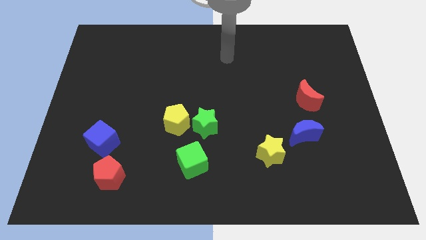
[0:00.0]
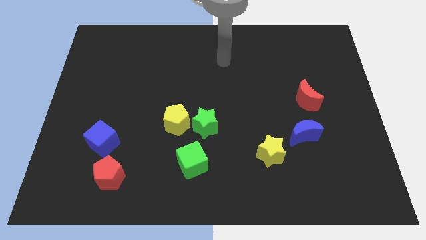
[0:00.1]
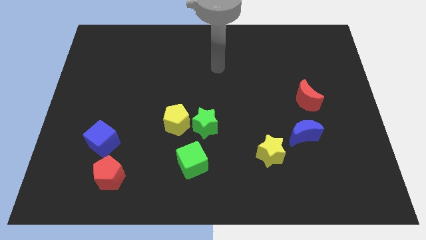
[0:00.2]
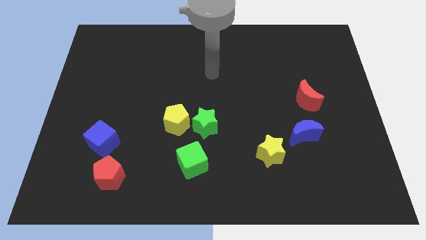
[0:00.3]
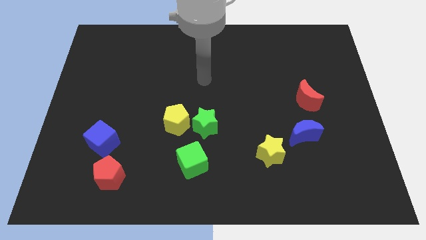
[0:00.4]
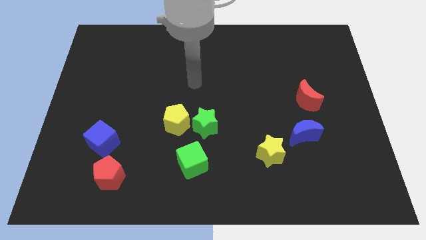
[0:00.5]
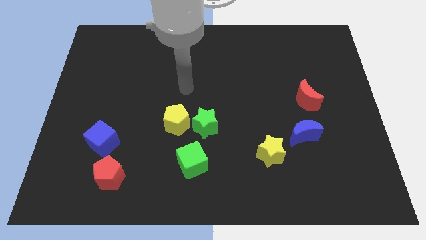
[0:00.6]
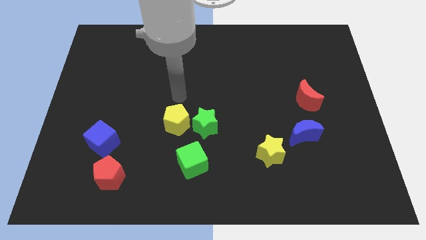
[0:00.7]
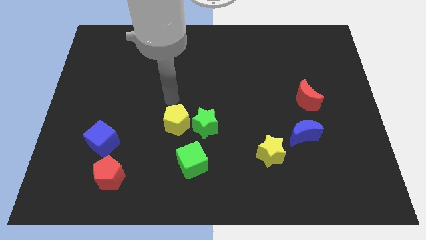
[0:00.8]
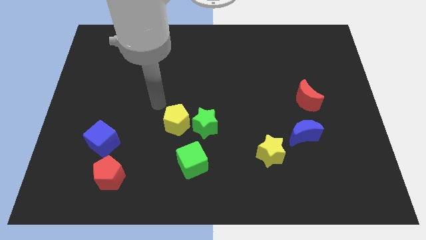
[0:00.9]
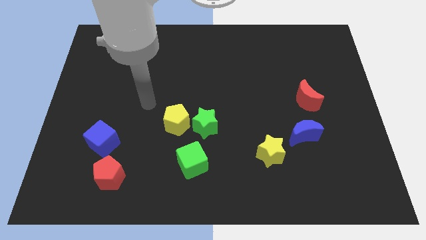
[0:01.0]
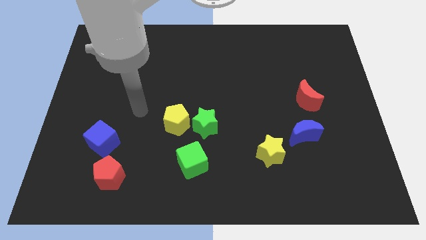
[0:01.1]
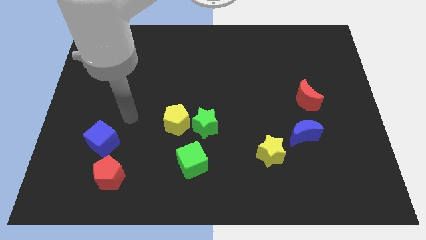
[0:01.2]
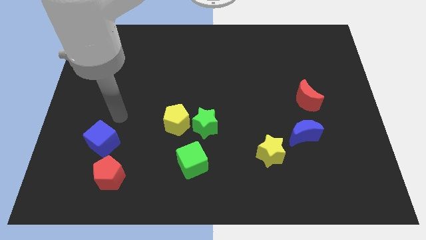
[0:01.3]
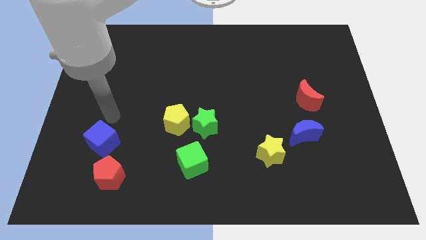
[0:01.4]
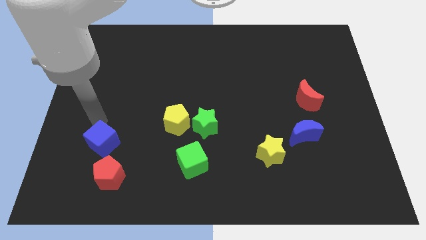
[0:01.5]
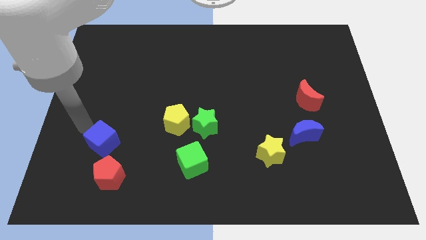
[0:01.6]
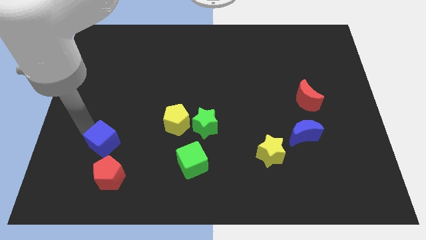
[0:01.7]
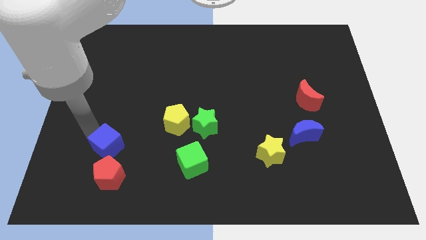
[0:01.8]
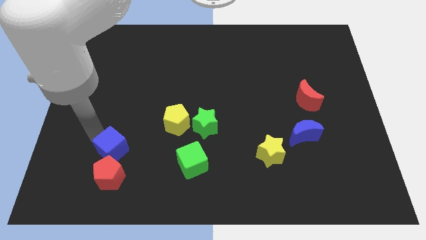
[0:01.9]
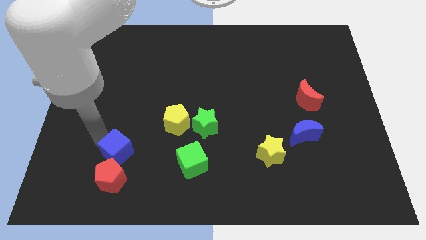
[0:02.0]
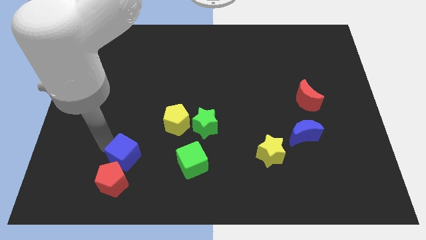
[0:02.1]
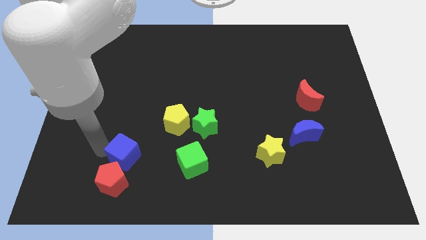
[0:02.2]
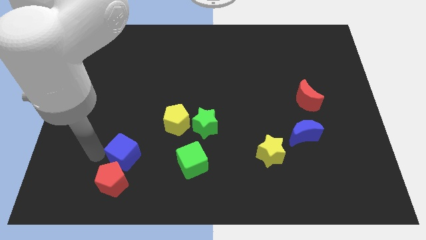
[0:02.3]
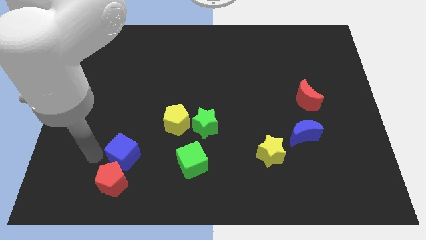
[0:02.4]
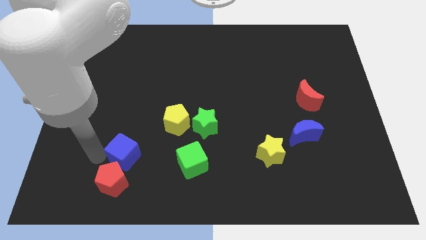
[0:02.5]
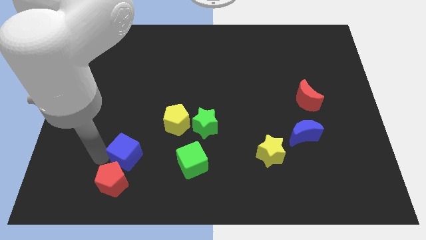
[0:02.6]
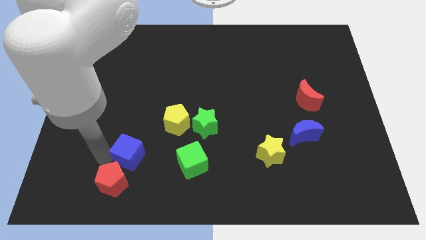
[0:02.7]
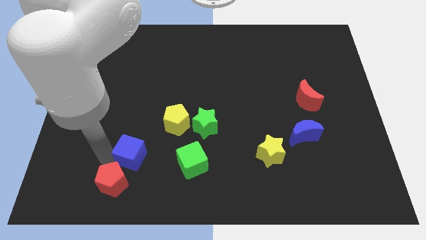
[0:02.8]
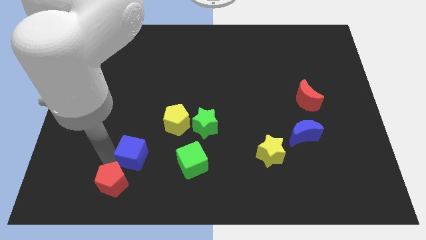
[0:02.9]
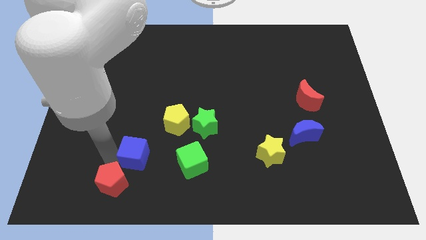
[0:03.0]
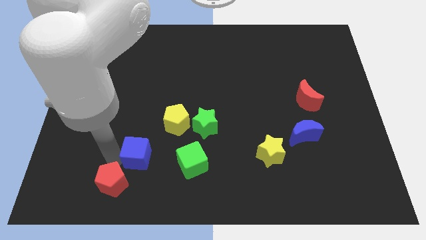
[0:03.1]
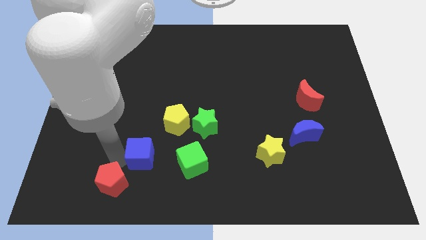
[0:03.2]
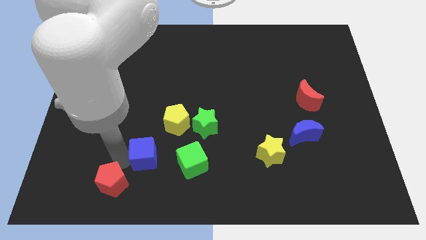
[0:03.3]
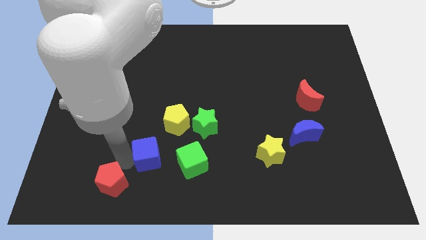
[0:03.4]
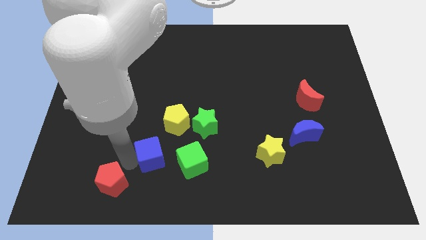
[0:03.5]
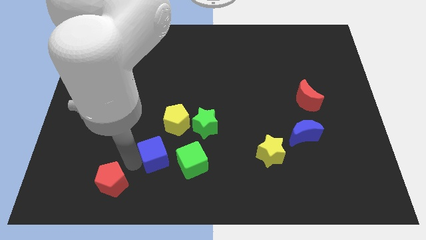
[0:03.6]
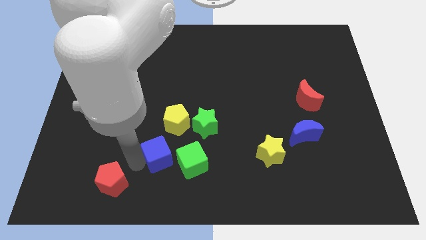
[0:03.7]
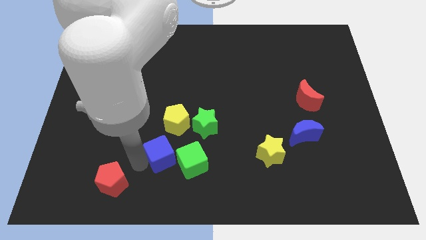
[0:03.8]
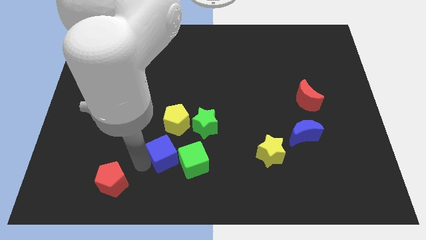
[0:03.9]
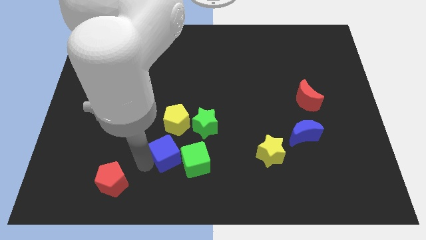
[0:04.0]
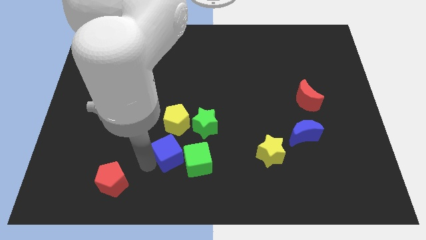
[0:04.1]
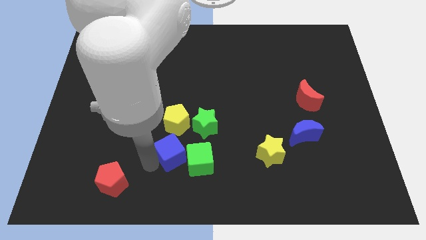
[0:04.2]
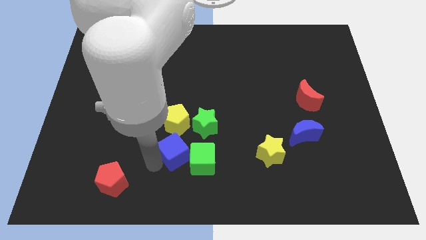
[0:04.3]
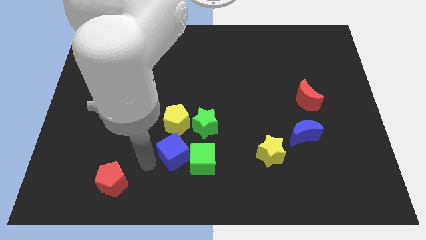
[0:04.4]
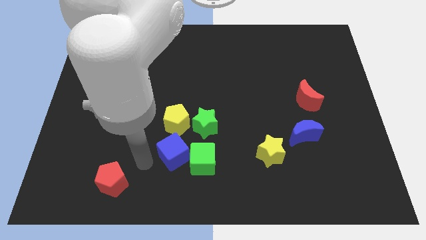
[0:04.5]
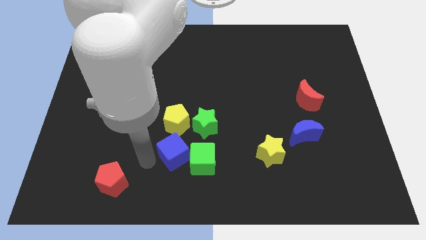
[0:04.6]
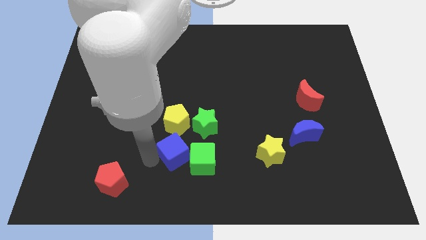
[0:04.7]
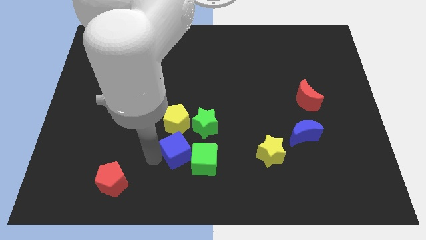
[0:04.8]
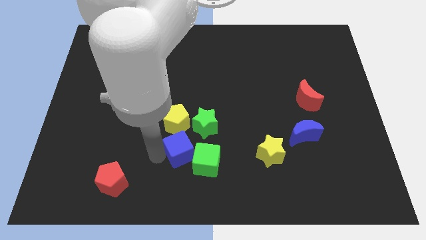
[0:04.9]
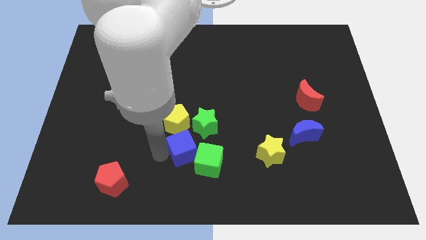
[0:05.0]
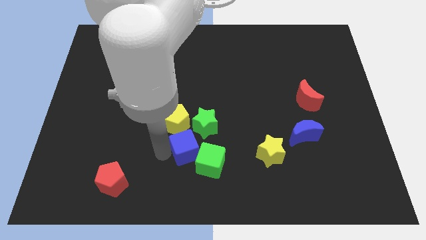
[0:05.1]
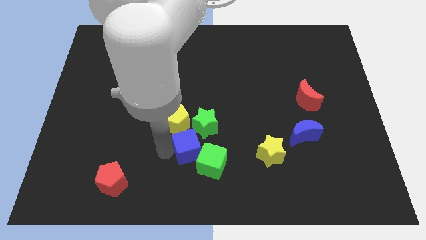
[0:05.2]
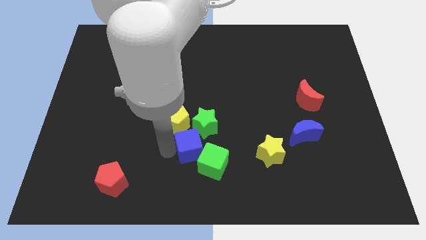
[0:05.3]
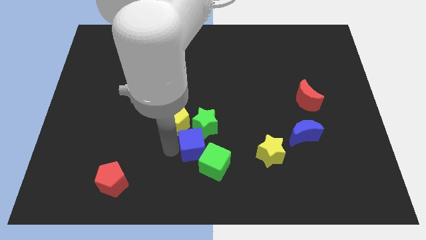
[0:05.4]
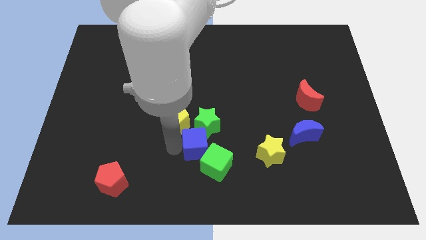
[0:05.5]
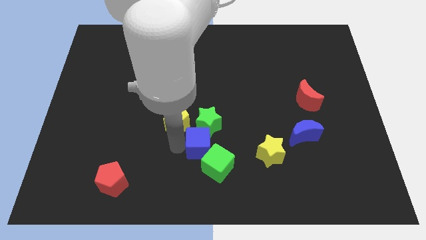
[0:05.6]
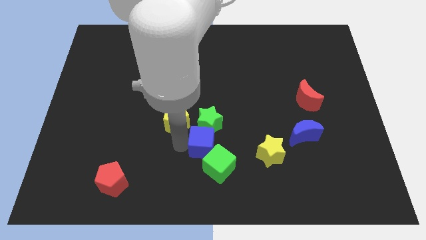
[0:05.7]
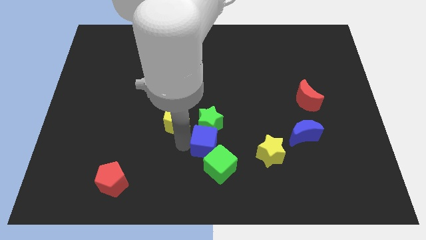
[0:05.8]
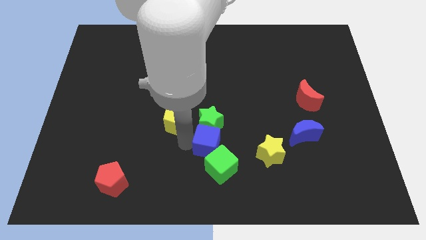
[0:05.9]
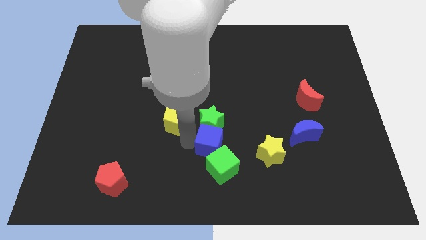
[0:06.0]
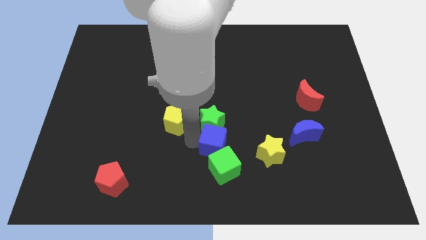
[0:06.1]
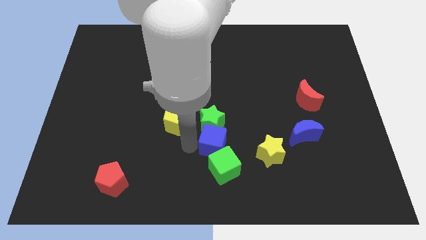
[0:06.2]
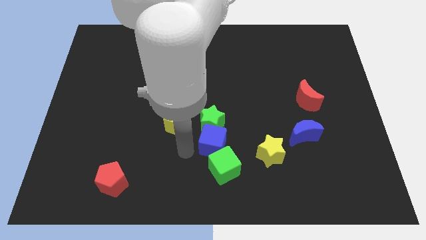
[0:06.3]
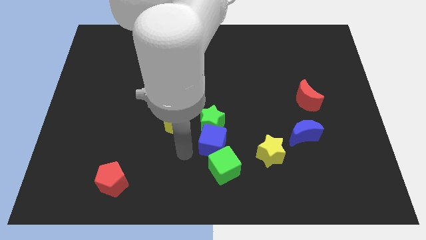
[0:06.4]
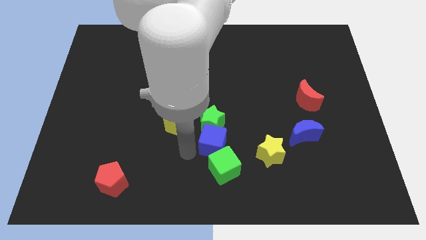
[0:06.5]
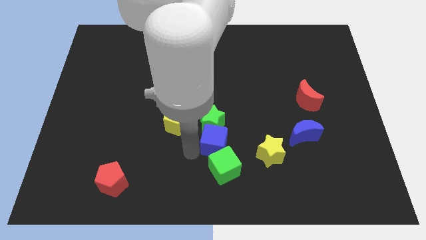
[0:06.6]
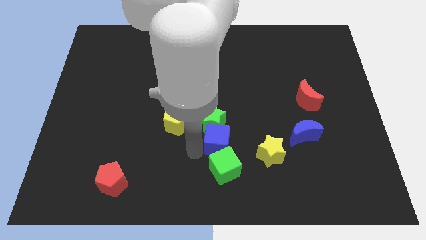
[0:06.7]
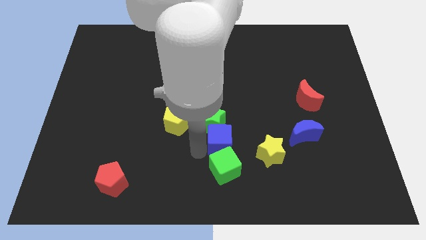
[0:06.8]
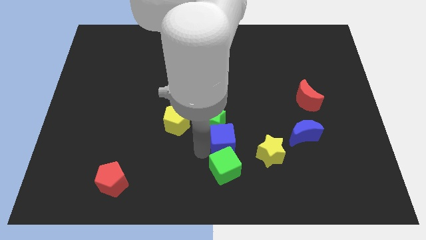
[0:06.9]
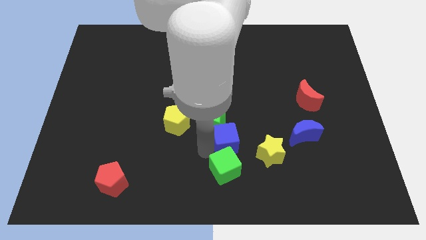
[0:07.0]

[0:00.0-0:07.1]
slide the blue cube to the top left side of the yellow star

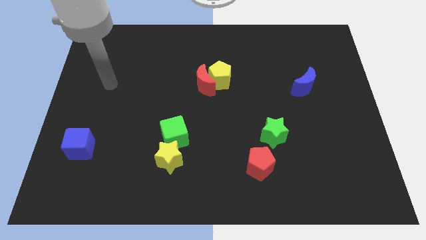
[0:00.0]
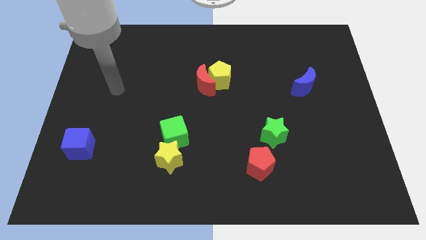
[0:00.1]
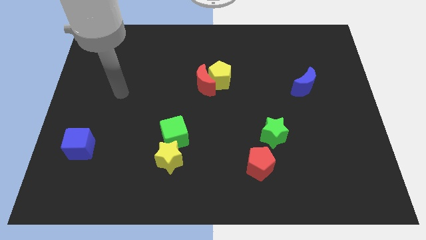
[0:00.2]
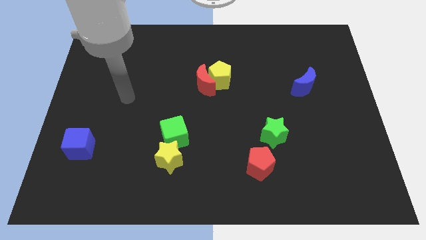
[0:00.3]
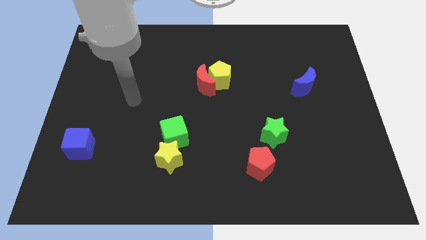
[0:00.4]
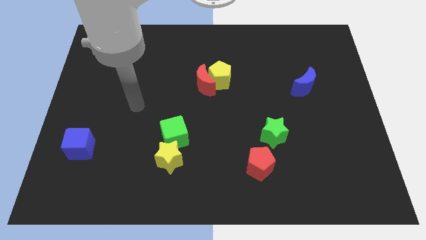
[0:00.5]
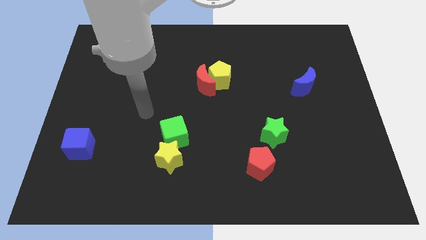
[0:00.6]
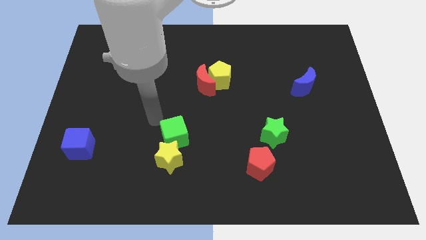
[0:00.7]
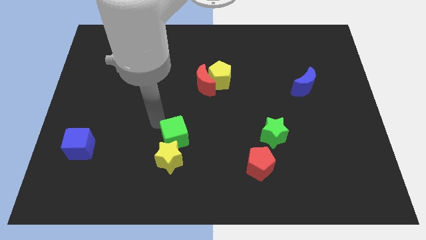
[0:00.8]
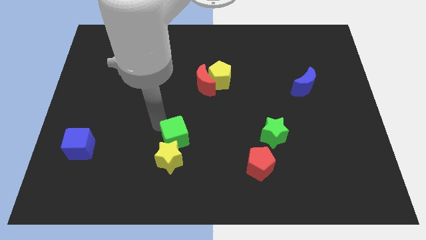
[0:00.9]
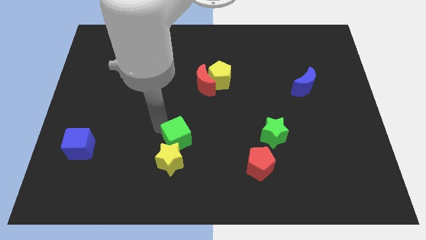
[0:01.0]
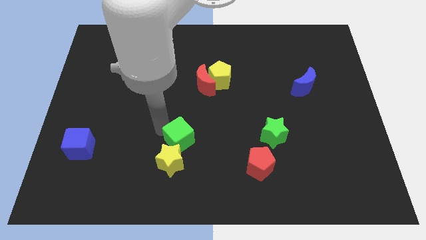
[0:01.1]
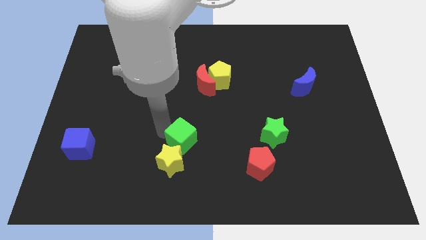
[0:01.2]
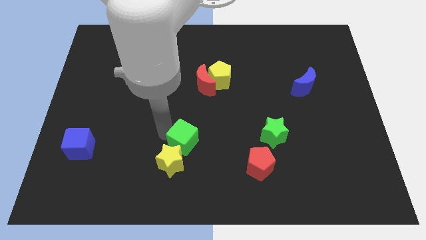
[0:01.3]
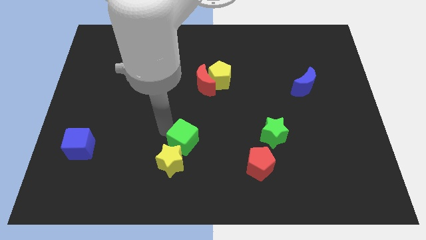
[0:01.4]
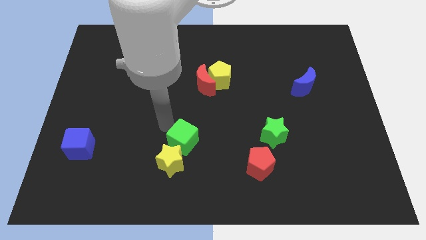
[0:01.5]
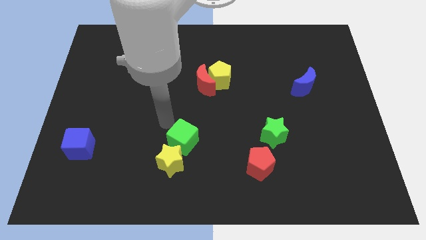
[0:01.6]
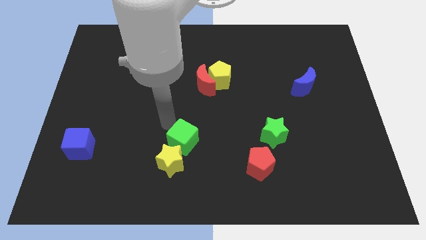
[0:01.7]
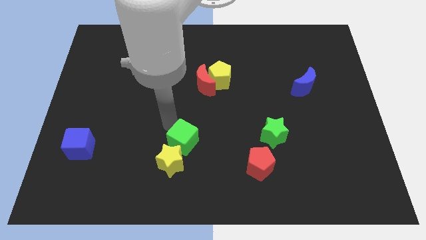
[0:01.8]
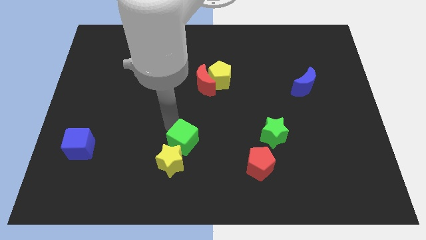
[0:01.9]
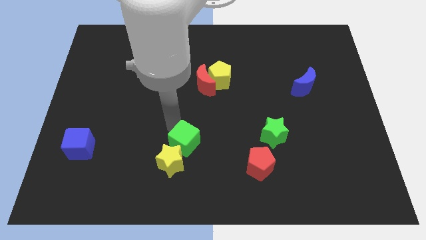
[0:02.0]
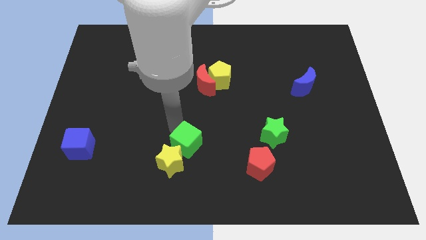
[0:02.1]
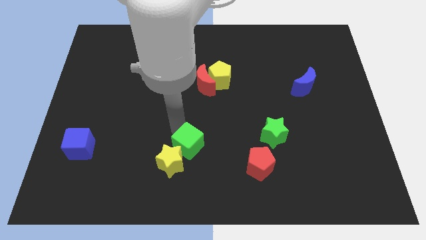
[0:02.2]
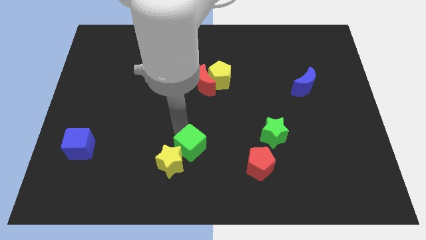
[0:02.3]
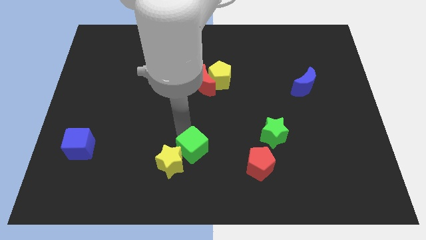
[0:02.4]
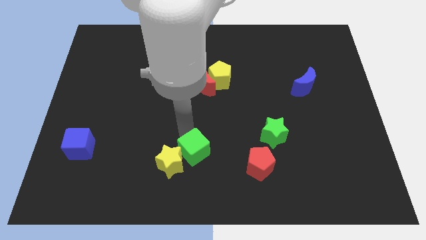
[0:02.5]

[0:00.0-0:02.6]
move the green cube to the left of the red pentagon
